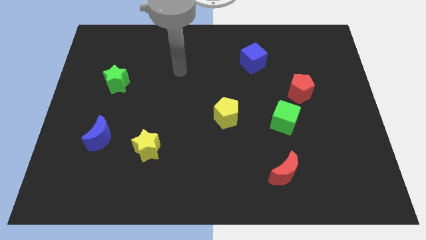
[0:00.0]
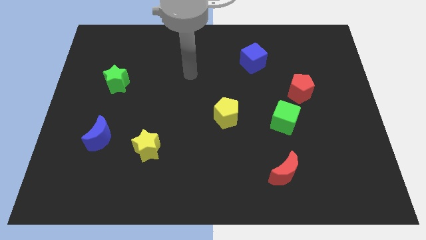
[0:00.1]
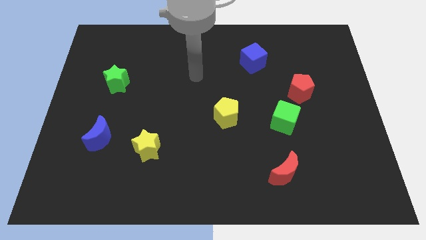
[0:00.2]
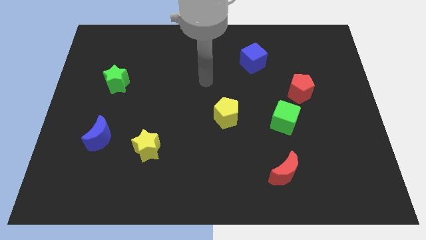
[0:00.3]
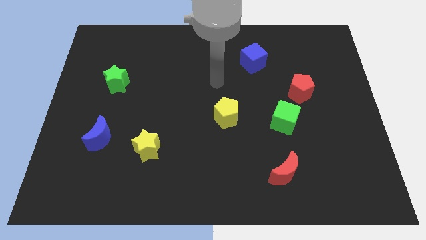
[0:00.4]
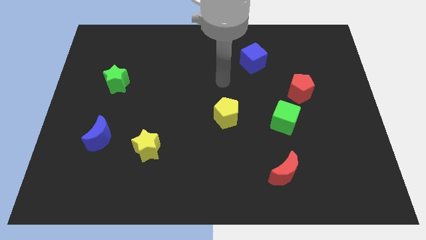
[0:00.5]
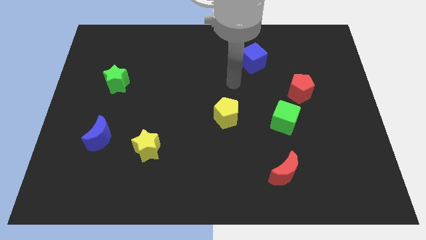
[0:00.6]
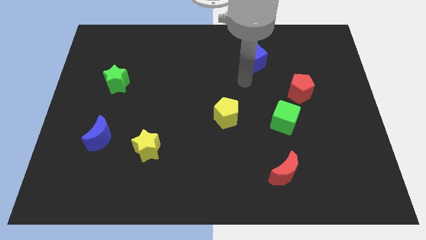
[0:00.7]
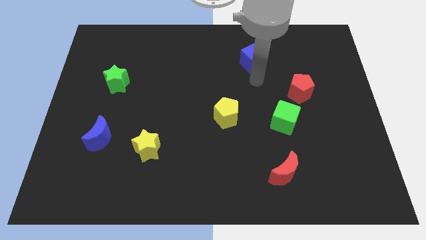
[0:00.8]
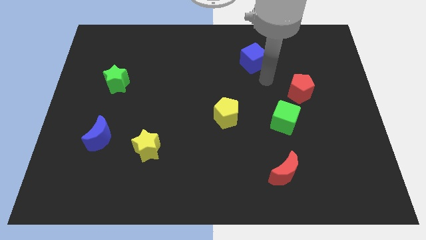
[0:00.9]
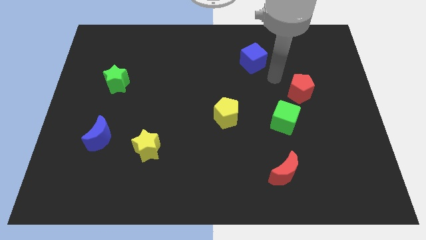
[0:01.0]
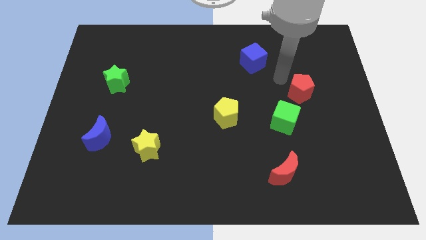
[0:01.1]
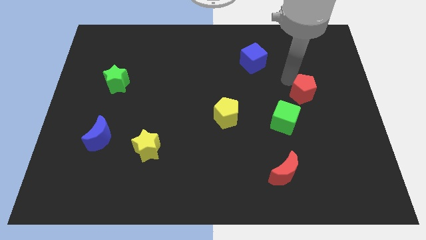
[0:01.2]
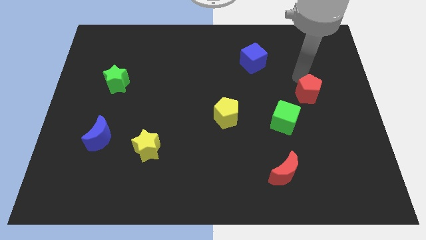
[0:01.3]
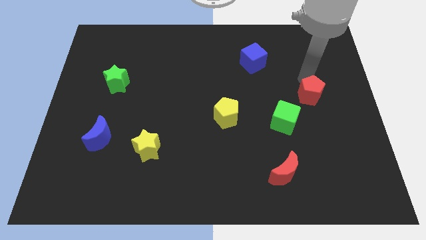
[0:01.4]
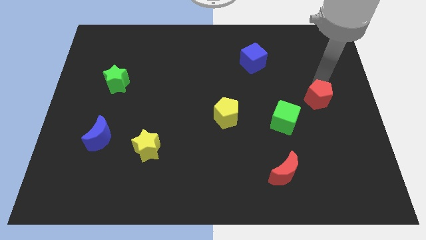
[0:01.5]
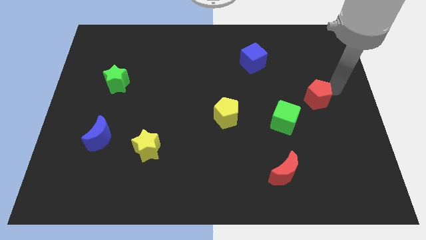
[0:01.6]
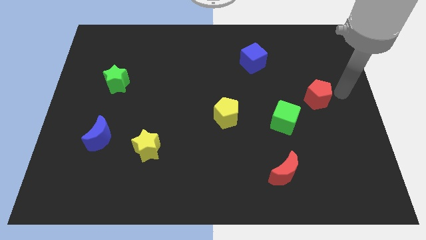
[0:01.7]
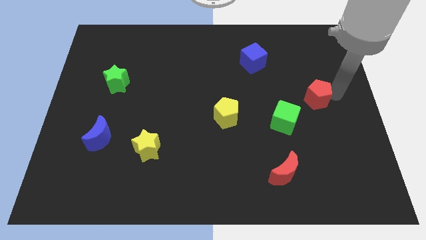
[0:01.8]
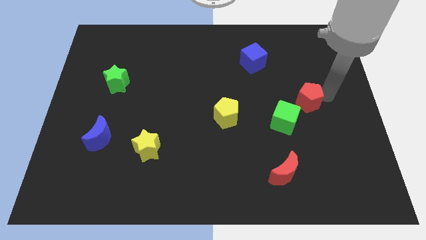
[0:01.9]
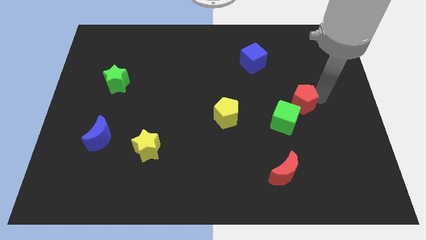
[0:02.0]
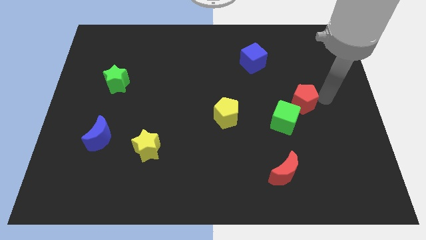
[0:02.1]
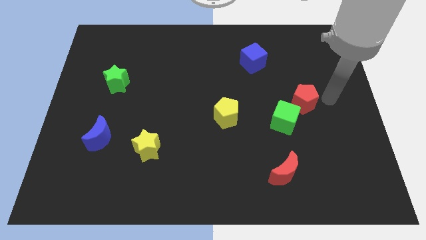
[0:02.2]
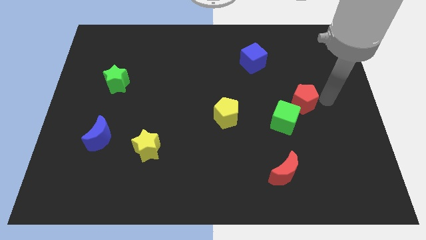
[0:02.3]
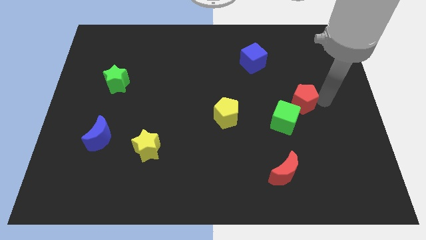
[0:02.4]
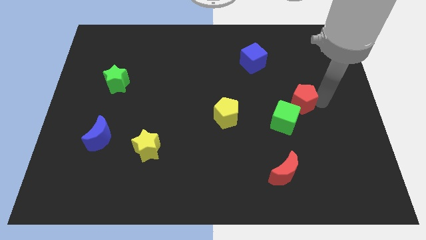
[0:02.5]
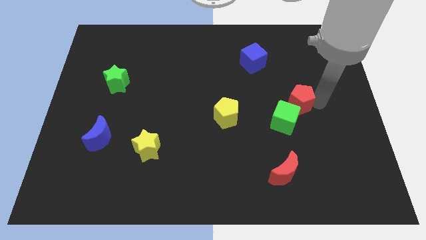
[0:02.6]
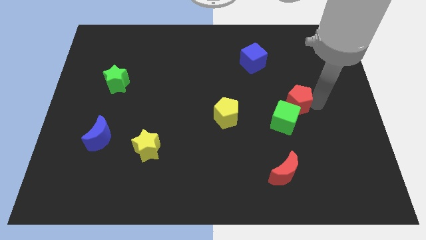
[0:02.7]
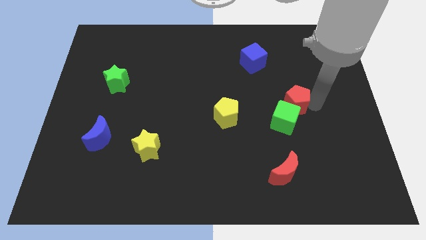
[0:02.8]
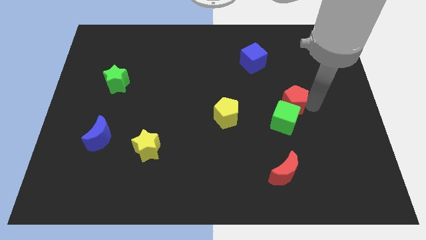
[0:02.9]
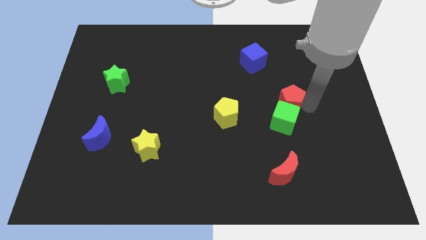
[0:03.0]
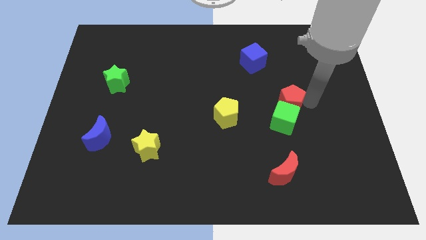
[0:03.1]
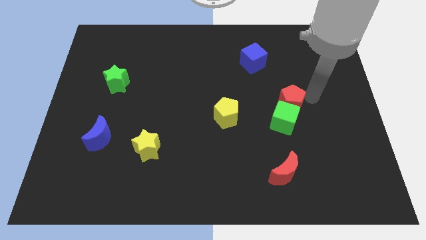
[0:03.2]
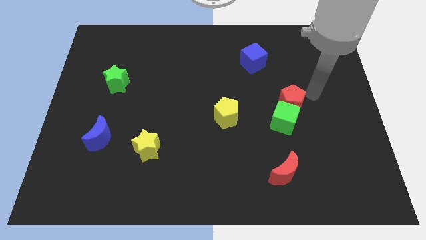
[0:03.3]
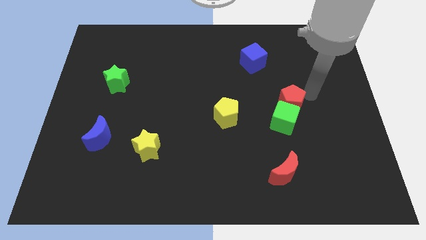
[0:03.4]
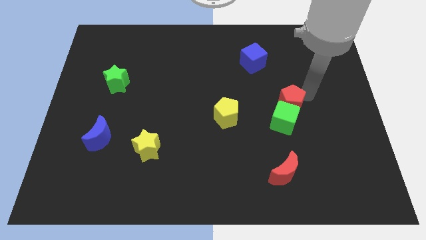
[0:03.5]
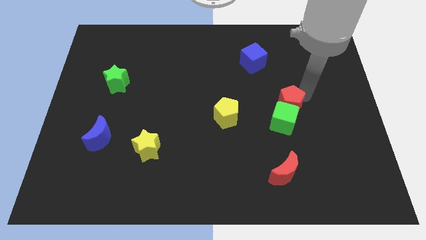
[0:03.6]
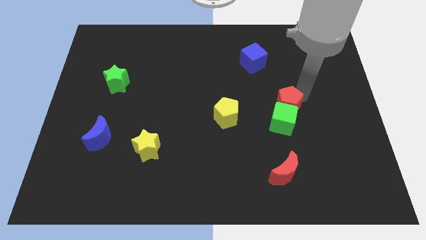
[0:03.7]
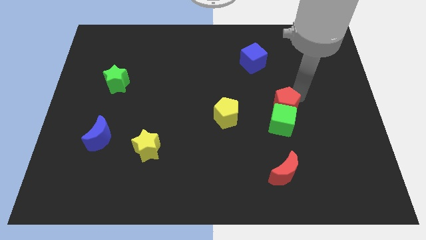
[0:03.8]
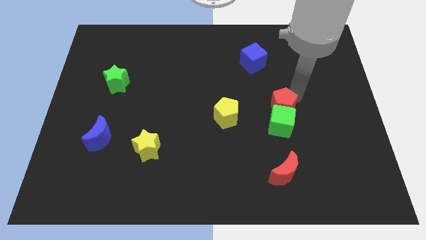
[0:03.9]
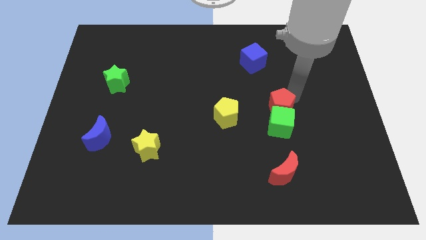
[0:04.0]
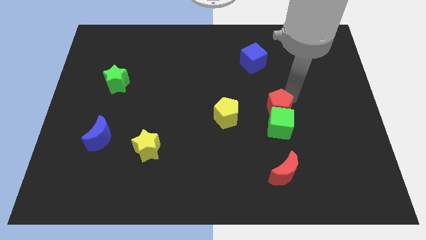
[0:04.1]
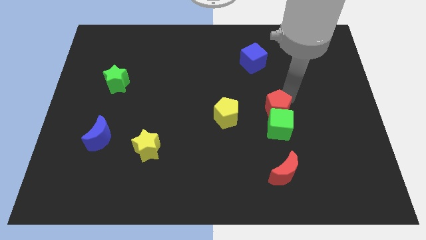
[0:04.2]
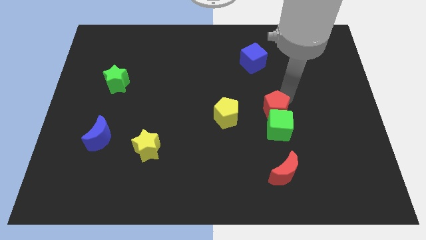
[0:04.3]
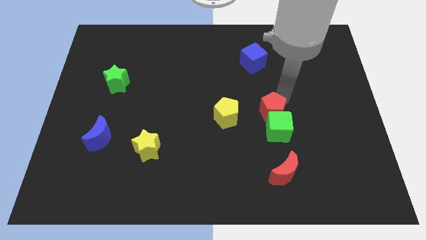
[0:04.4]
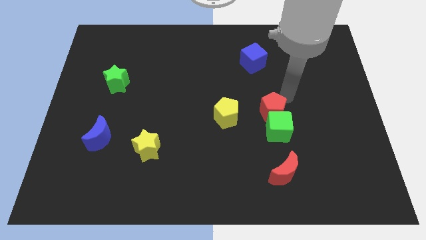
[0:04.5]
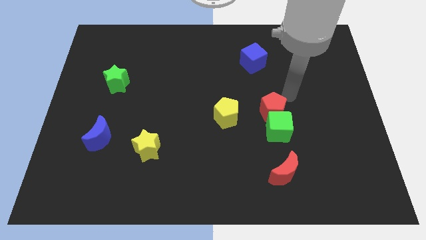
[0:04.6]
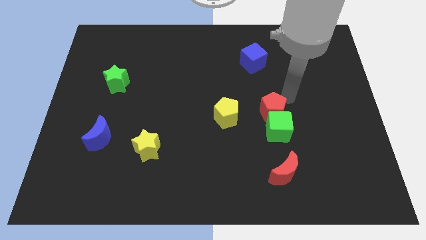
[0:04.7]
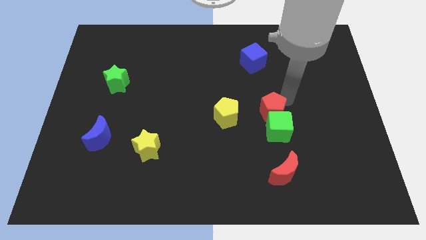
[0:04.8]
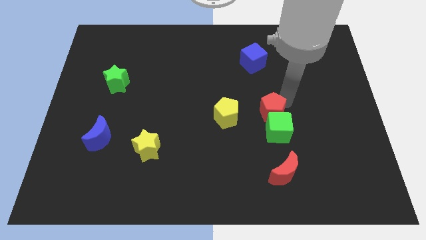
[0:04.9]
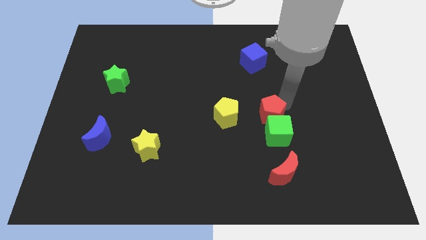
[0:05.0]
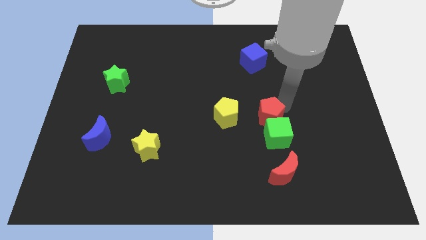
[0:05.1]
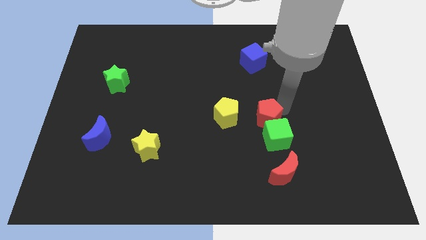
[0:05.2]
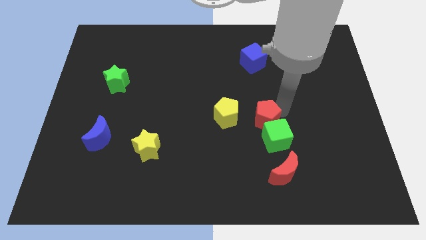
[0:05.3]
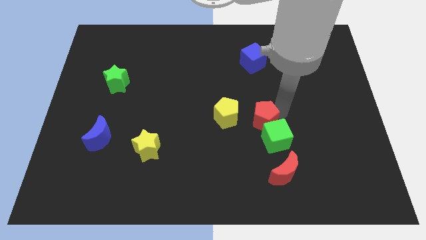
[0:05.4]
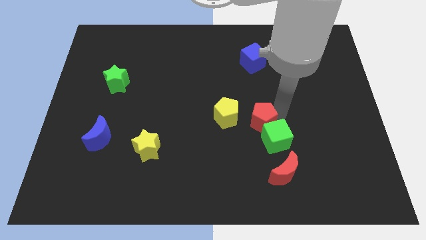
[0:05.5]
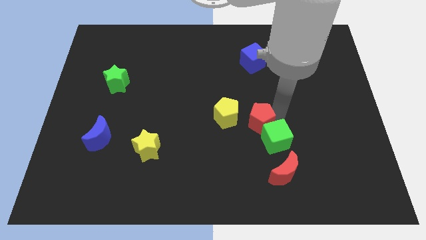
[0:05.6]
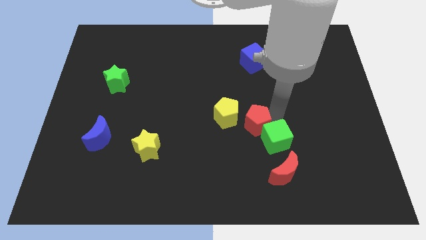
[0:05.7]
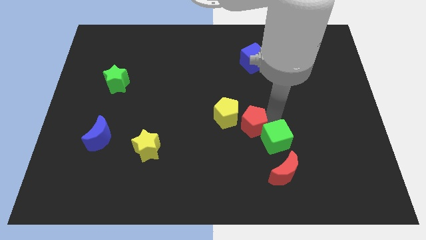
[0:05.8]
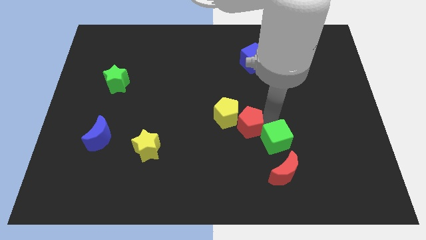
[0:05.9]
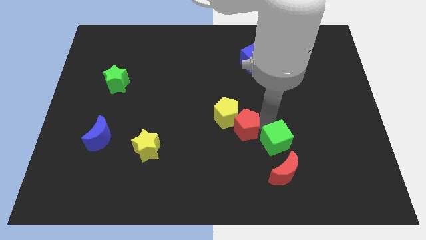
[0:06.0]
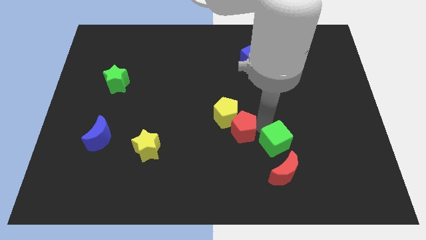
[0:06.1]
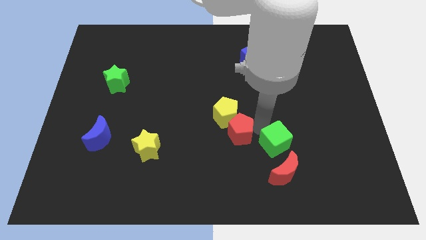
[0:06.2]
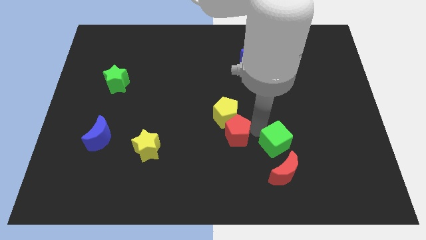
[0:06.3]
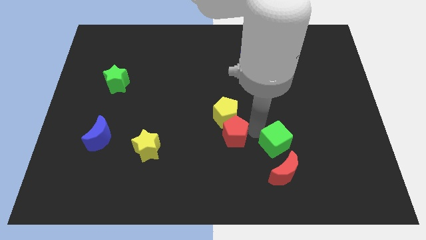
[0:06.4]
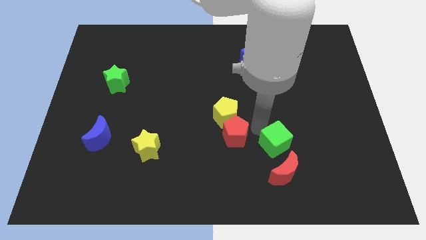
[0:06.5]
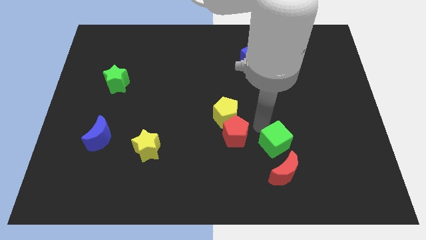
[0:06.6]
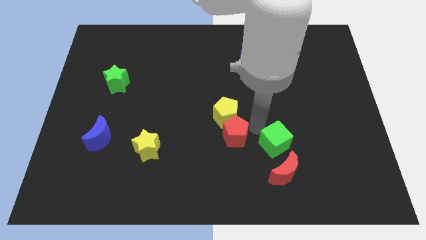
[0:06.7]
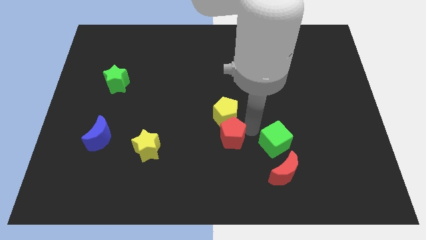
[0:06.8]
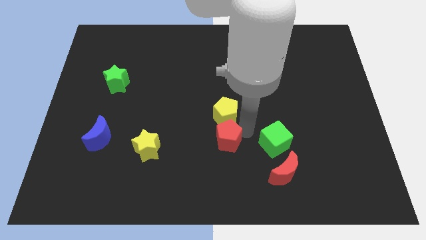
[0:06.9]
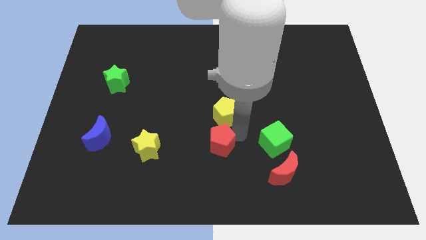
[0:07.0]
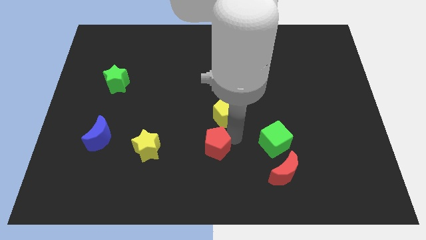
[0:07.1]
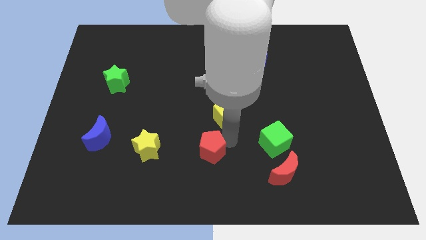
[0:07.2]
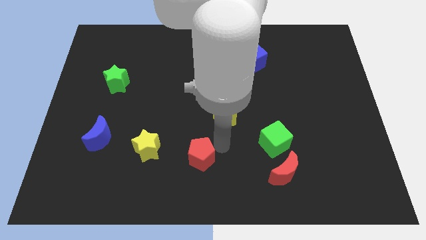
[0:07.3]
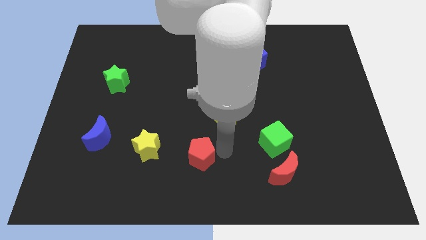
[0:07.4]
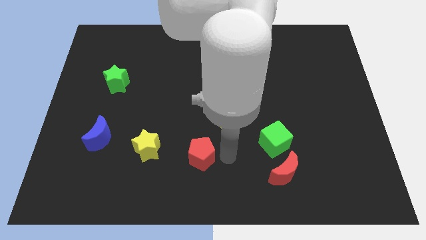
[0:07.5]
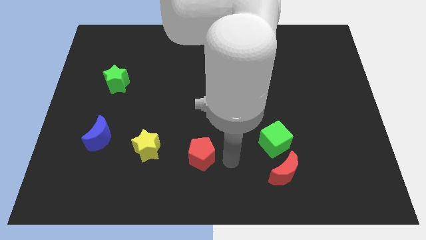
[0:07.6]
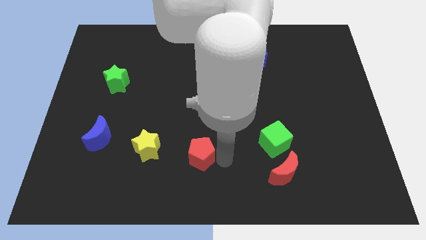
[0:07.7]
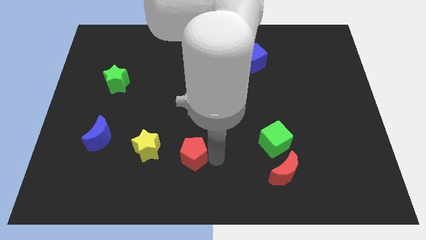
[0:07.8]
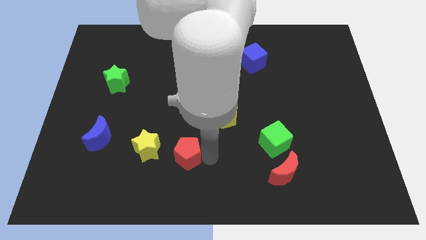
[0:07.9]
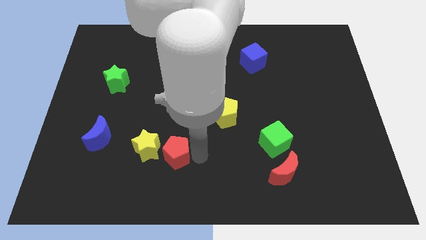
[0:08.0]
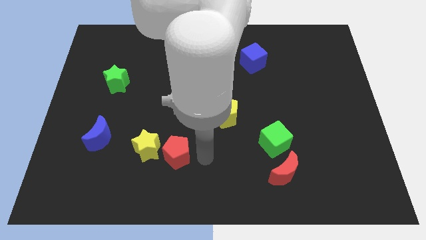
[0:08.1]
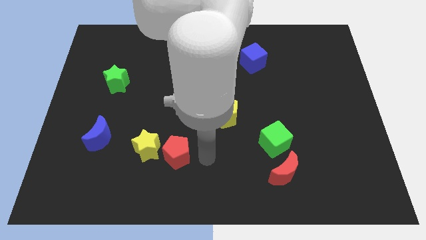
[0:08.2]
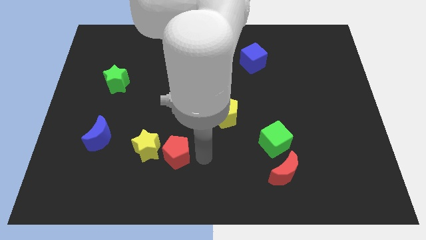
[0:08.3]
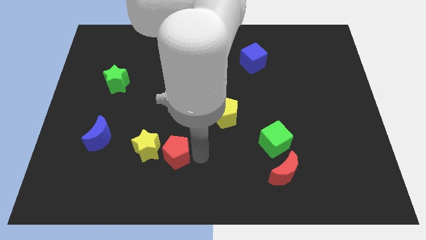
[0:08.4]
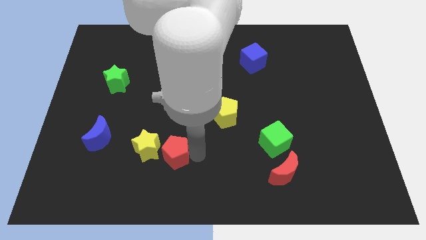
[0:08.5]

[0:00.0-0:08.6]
push the red pentagon towards the yellow star
